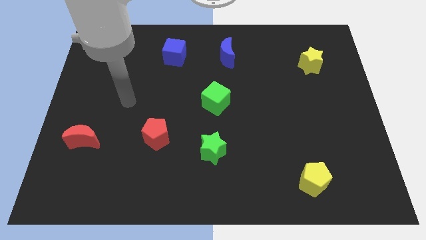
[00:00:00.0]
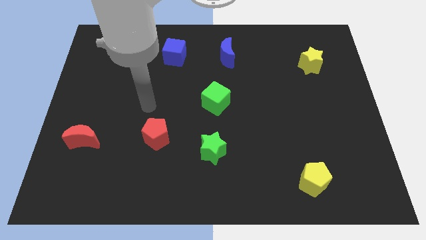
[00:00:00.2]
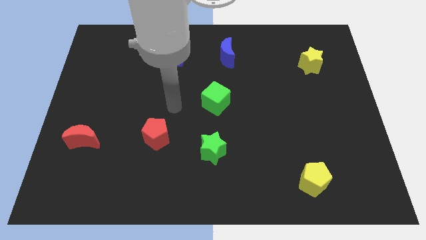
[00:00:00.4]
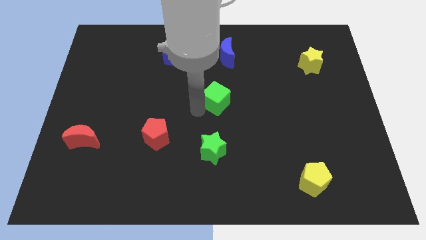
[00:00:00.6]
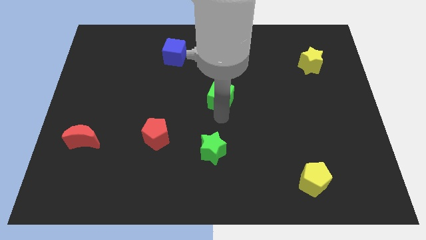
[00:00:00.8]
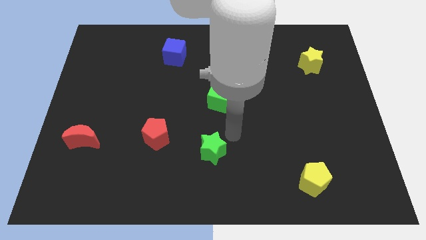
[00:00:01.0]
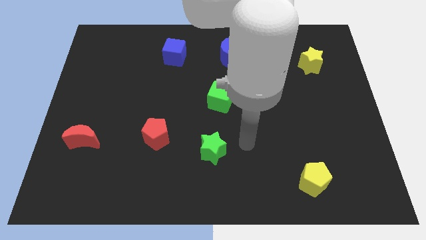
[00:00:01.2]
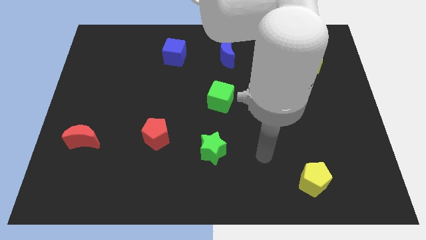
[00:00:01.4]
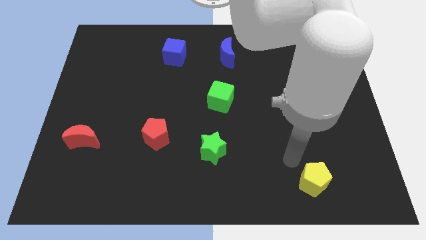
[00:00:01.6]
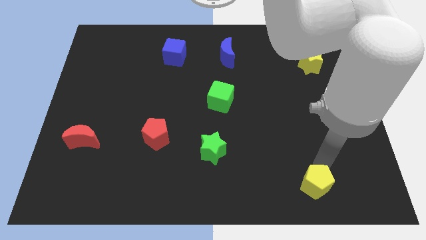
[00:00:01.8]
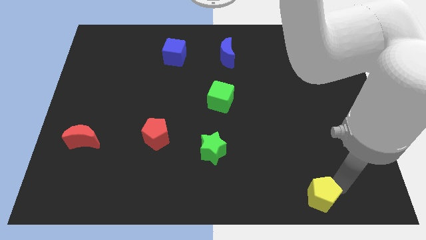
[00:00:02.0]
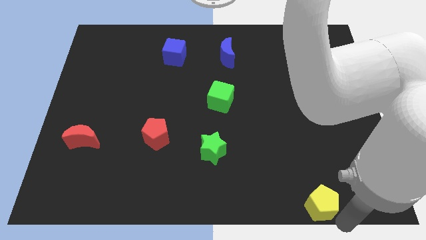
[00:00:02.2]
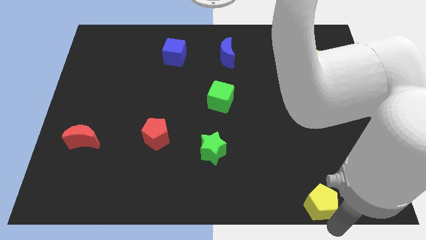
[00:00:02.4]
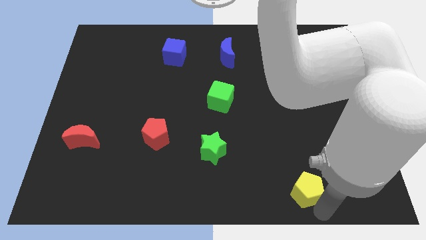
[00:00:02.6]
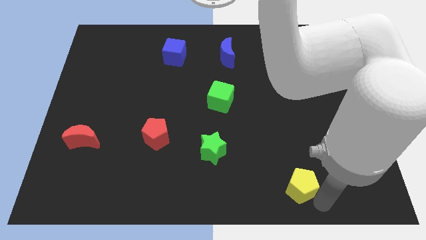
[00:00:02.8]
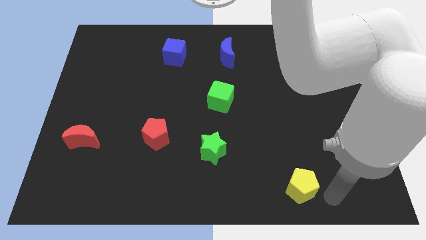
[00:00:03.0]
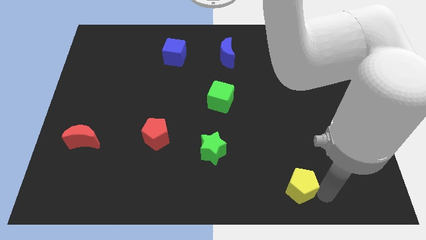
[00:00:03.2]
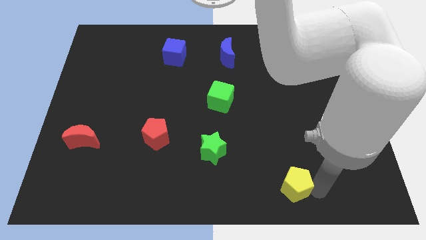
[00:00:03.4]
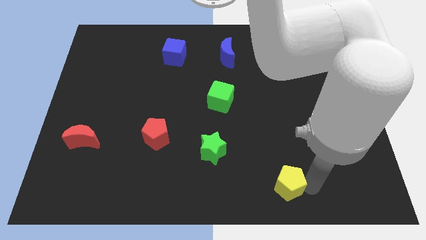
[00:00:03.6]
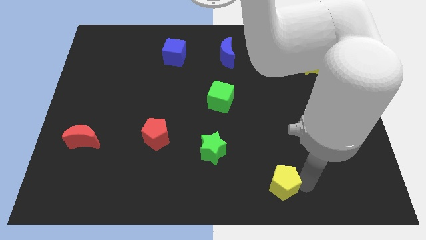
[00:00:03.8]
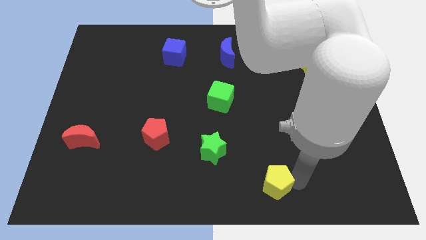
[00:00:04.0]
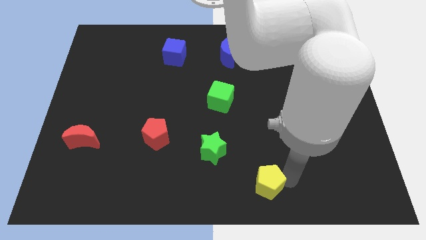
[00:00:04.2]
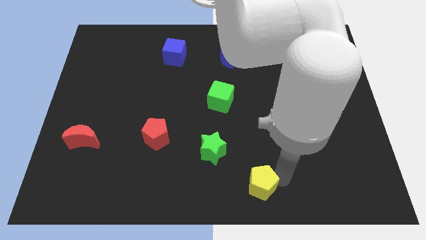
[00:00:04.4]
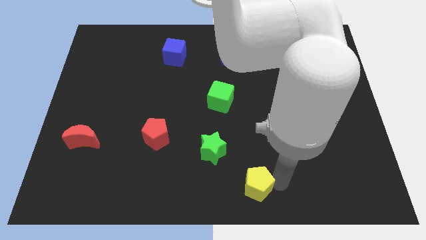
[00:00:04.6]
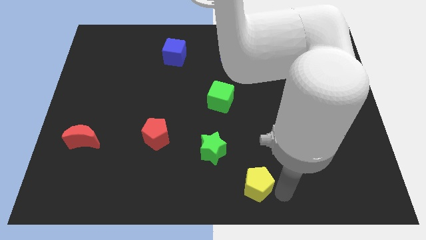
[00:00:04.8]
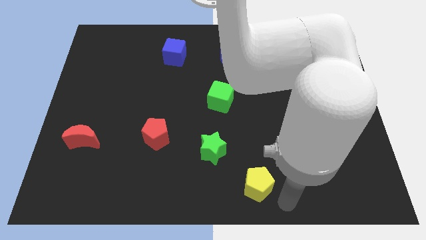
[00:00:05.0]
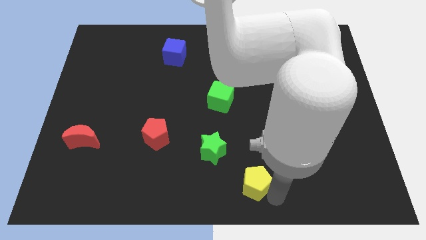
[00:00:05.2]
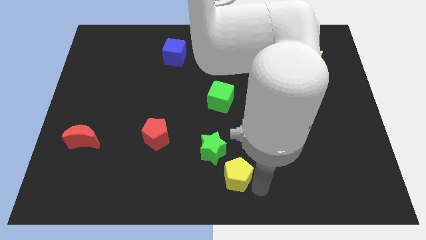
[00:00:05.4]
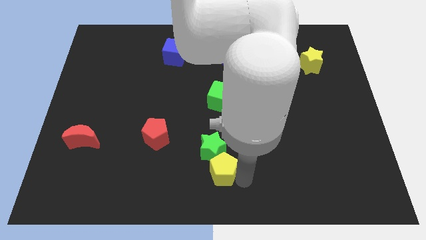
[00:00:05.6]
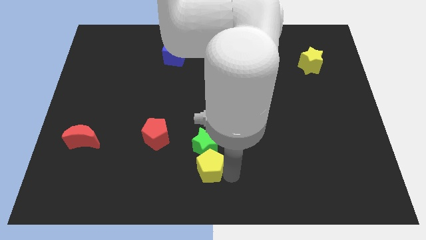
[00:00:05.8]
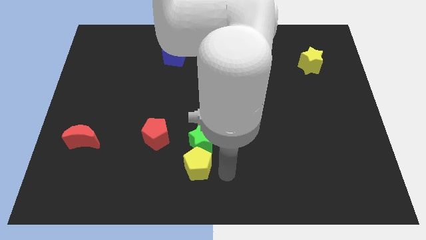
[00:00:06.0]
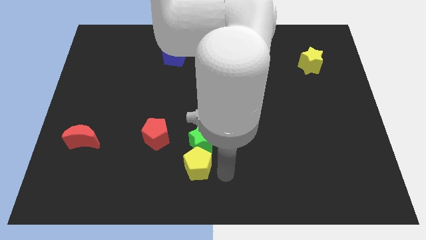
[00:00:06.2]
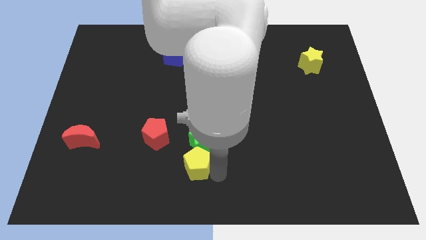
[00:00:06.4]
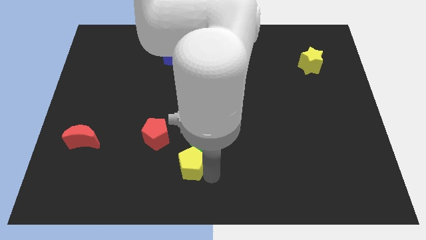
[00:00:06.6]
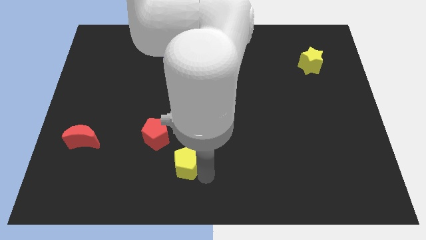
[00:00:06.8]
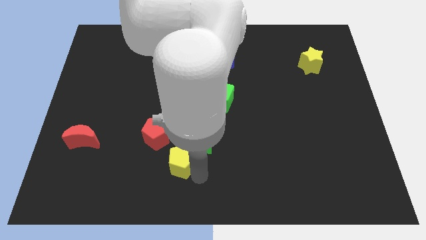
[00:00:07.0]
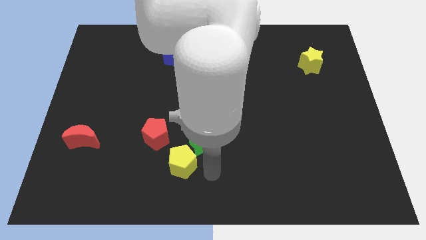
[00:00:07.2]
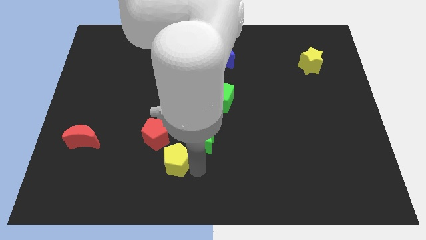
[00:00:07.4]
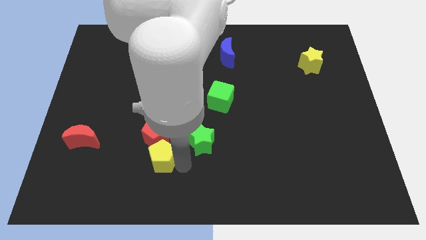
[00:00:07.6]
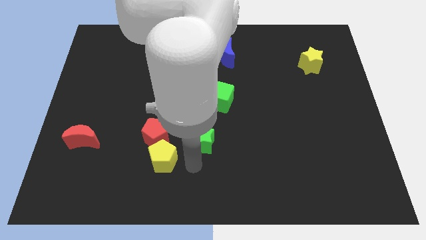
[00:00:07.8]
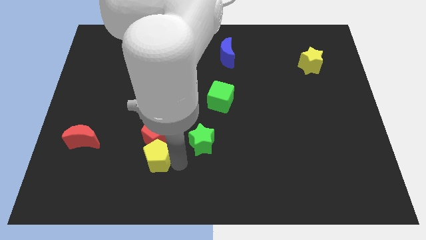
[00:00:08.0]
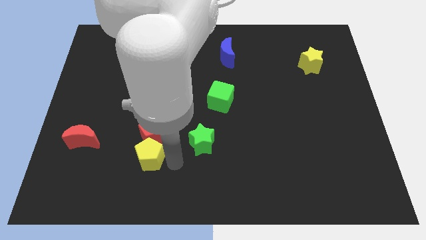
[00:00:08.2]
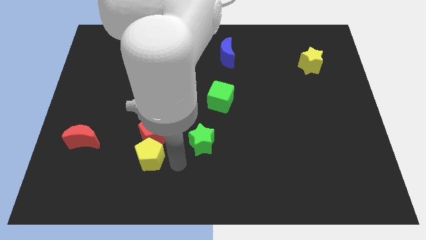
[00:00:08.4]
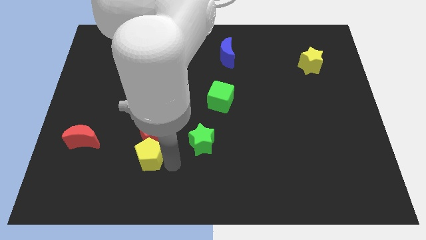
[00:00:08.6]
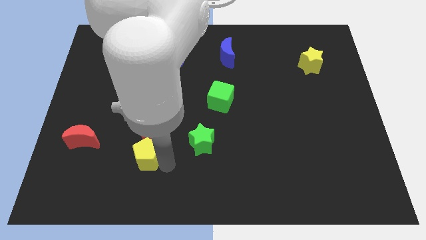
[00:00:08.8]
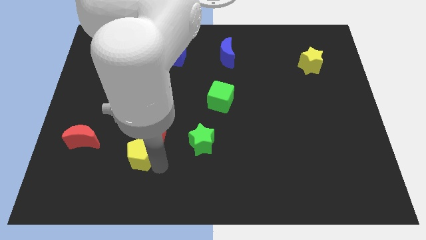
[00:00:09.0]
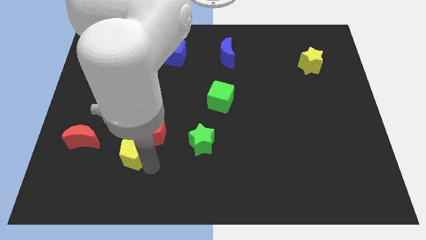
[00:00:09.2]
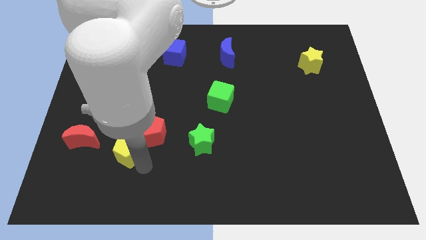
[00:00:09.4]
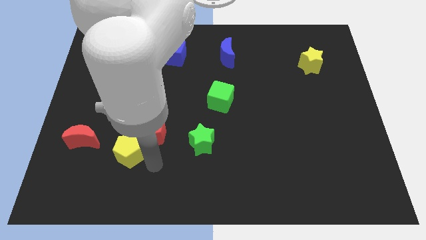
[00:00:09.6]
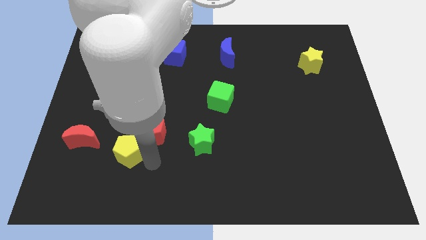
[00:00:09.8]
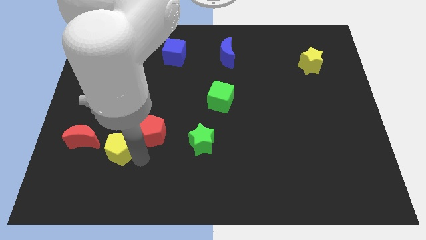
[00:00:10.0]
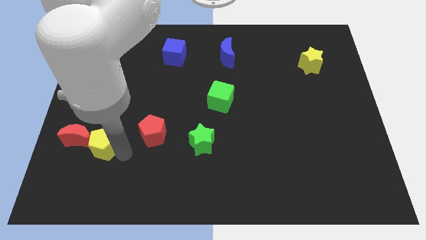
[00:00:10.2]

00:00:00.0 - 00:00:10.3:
move the yellow pentagon next to the red moon

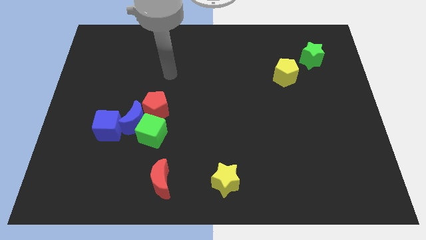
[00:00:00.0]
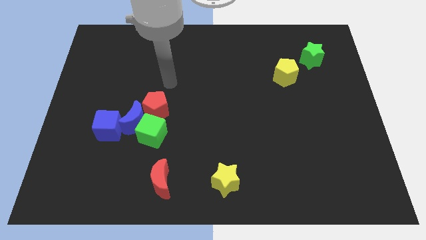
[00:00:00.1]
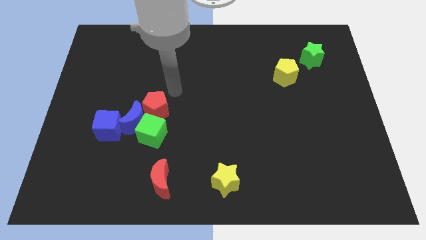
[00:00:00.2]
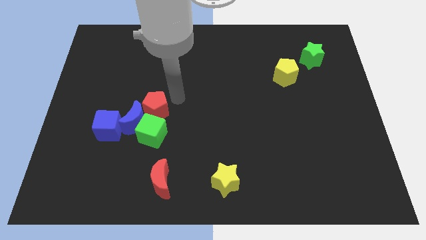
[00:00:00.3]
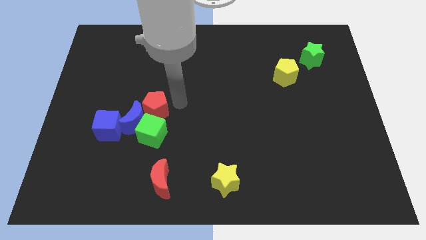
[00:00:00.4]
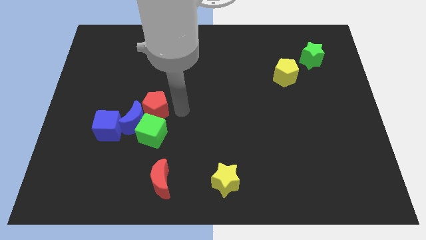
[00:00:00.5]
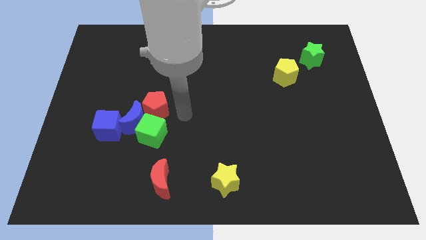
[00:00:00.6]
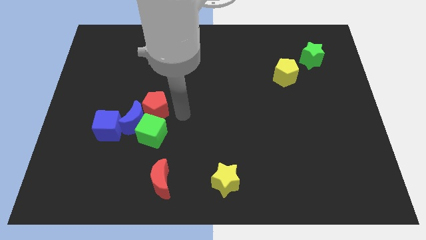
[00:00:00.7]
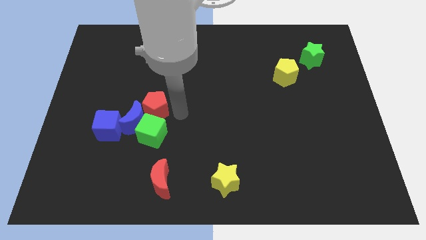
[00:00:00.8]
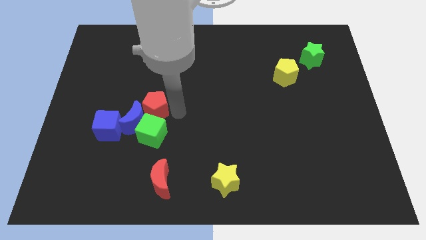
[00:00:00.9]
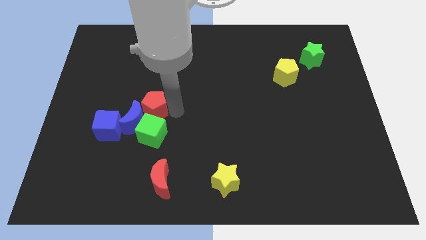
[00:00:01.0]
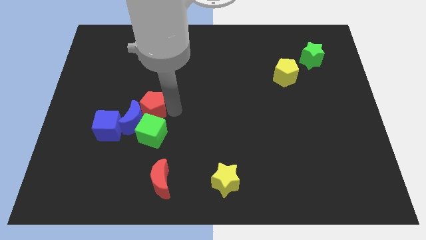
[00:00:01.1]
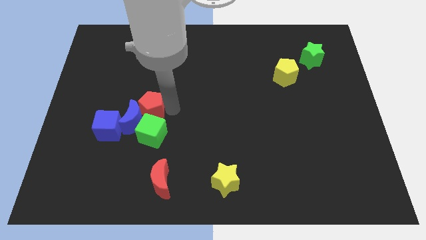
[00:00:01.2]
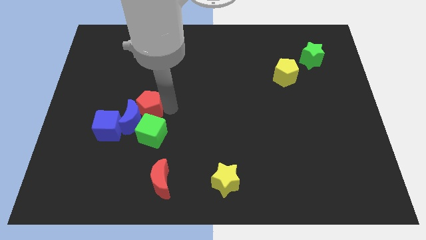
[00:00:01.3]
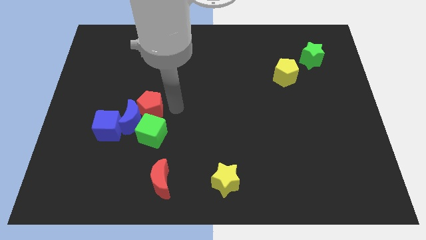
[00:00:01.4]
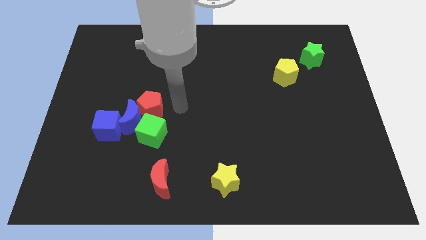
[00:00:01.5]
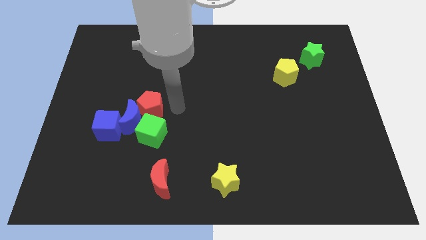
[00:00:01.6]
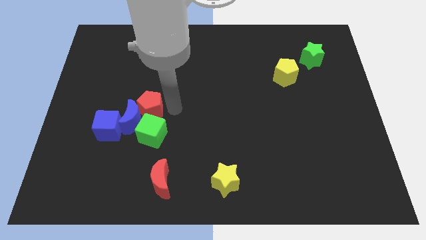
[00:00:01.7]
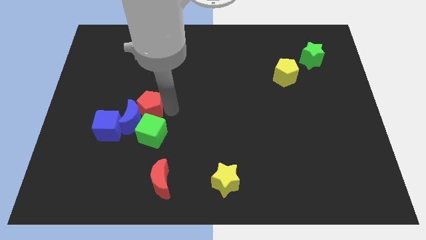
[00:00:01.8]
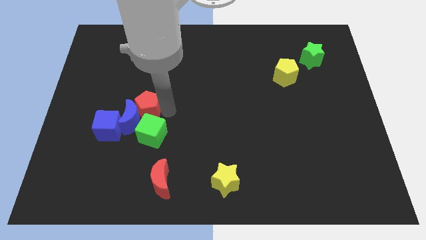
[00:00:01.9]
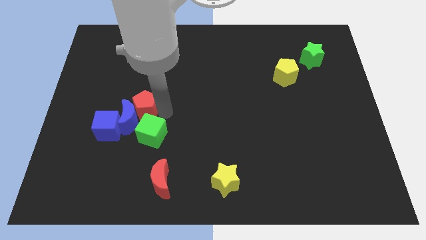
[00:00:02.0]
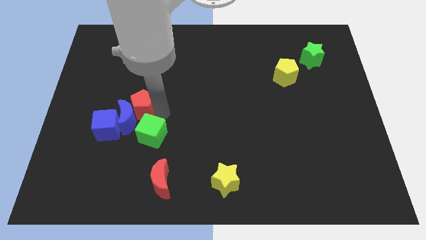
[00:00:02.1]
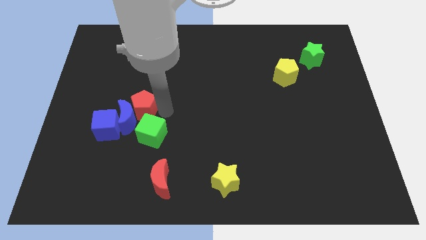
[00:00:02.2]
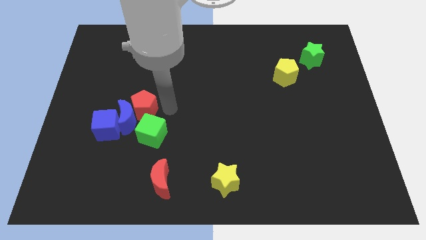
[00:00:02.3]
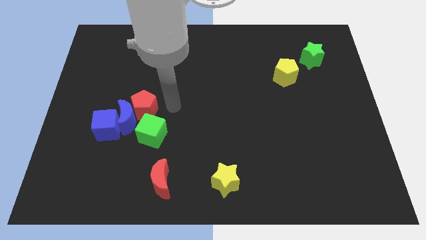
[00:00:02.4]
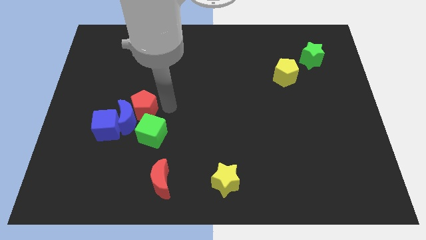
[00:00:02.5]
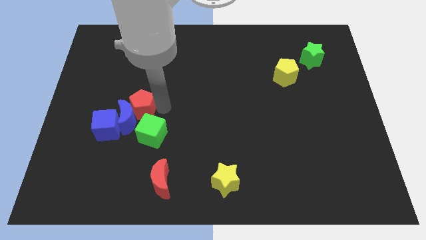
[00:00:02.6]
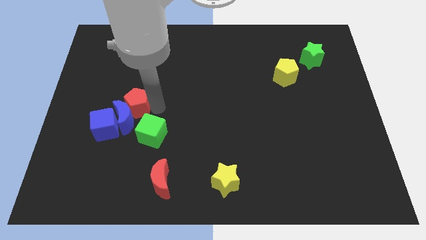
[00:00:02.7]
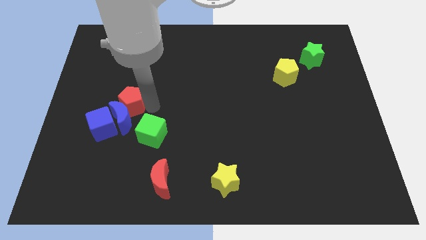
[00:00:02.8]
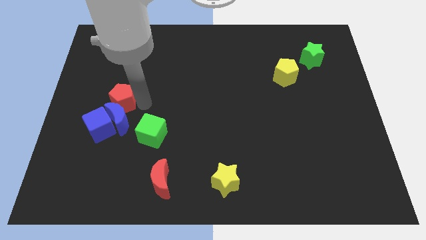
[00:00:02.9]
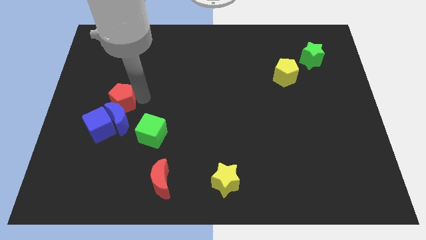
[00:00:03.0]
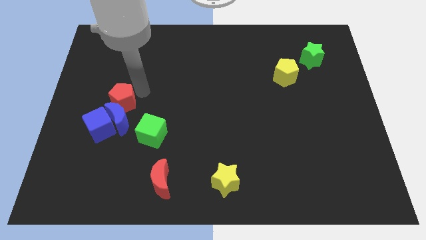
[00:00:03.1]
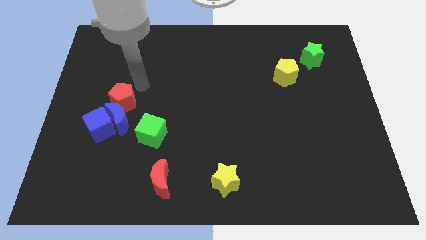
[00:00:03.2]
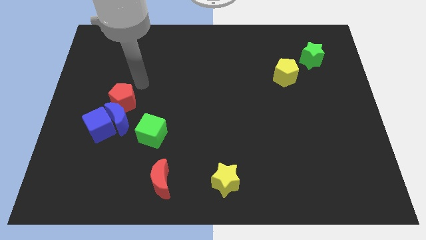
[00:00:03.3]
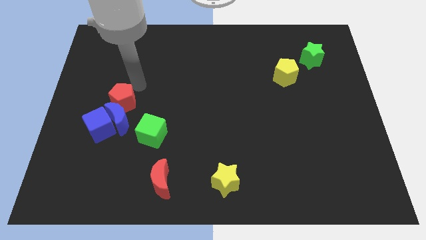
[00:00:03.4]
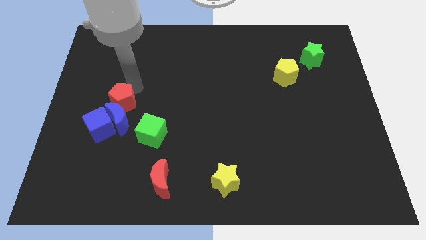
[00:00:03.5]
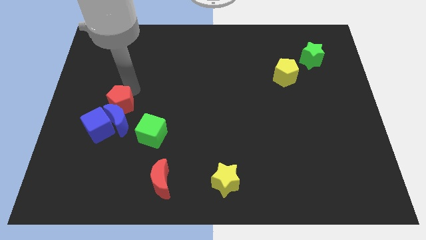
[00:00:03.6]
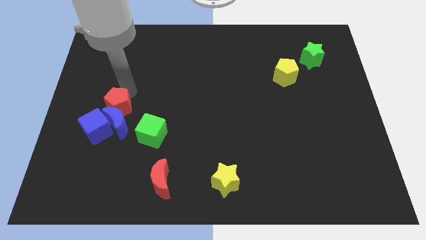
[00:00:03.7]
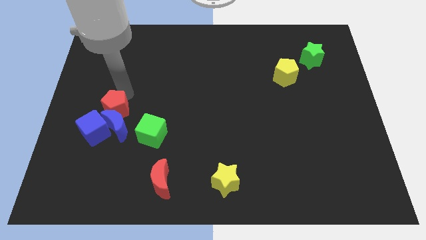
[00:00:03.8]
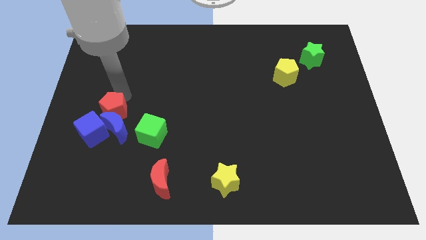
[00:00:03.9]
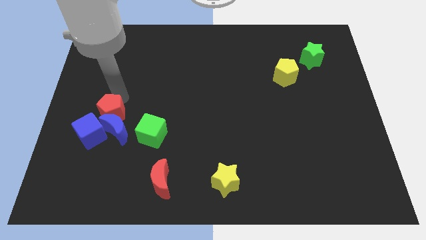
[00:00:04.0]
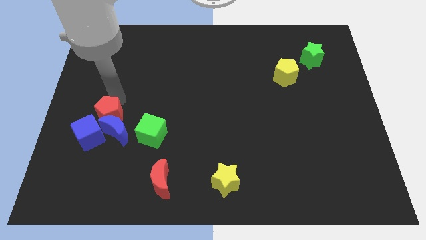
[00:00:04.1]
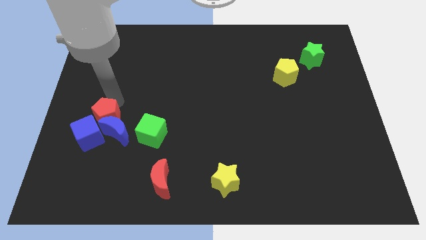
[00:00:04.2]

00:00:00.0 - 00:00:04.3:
move the red pentagon close to the blue cube
